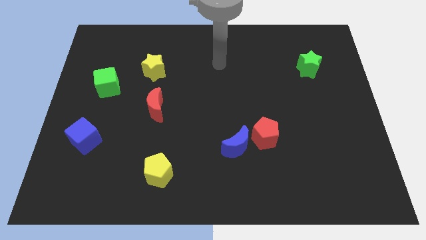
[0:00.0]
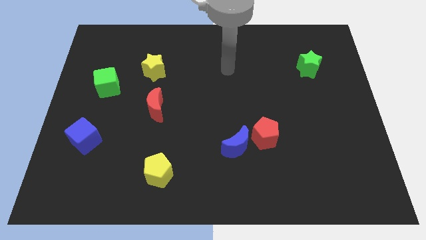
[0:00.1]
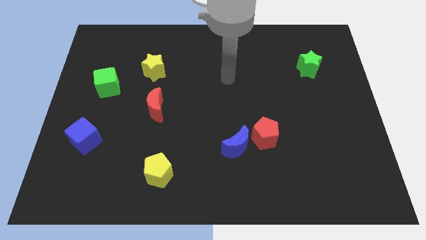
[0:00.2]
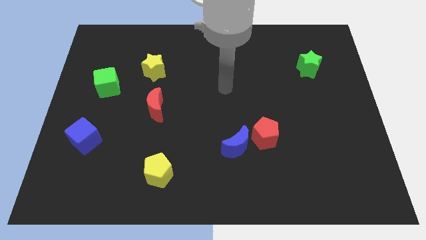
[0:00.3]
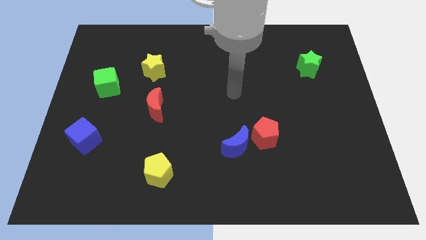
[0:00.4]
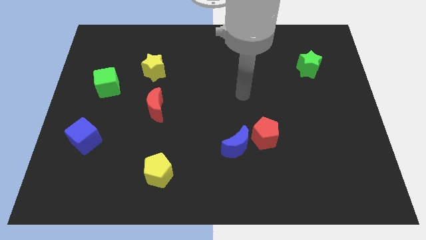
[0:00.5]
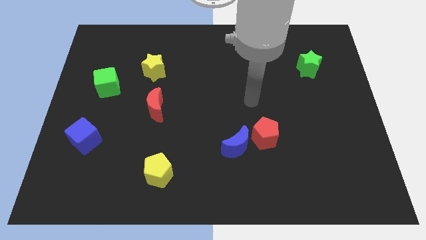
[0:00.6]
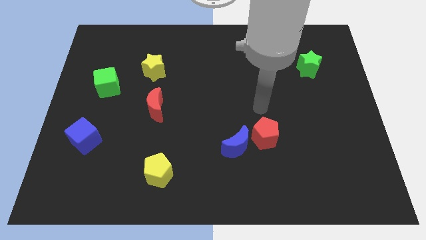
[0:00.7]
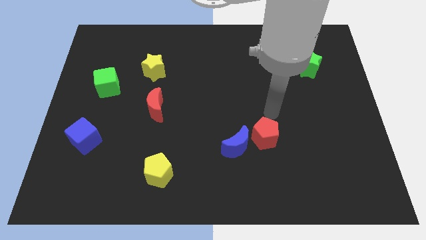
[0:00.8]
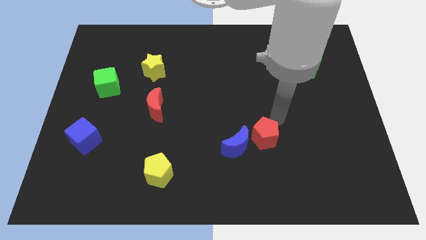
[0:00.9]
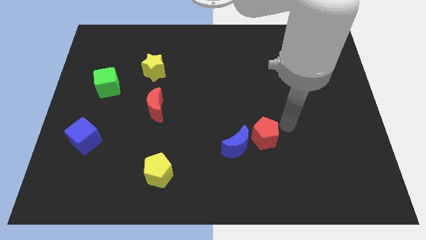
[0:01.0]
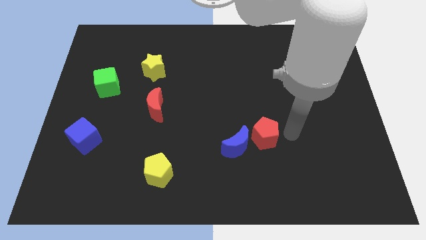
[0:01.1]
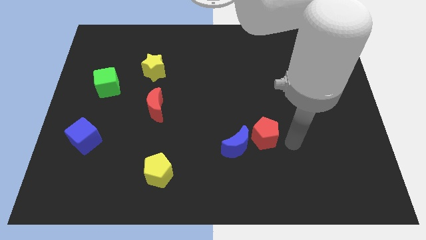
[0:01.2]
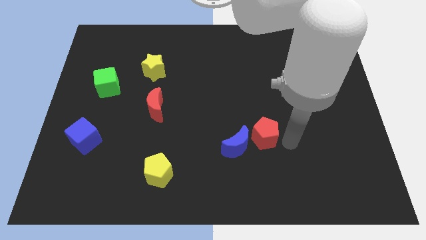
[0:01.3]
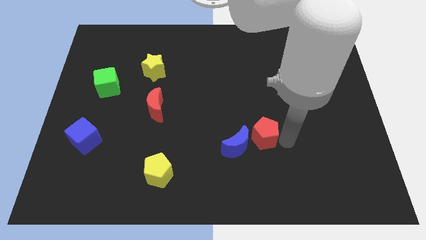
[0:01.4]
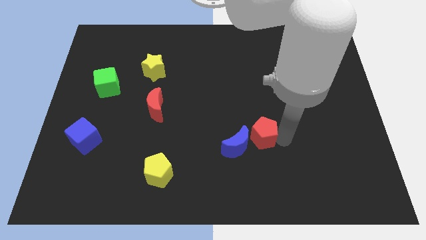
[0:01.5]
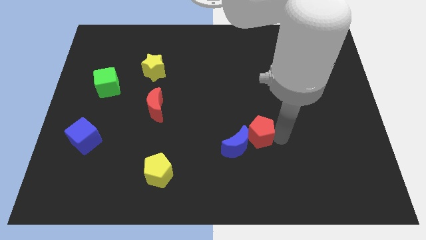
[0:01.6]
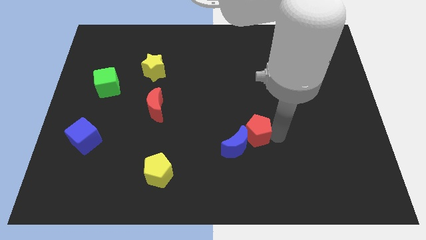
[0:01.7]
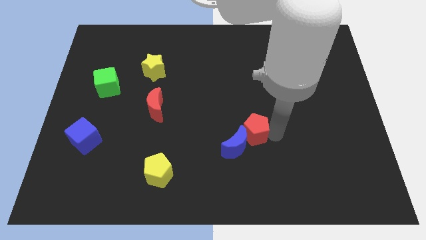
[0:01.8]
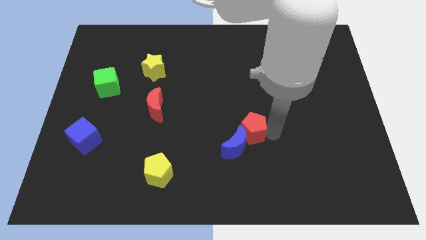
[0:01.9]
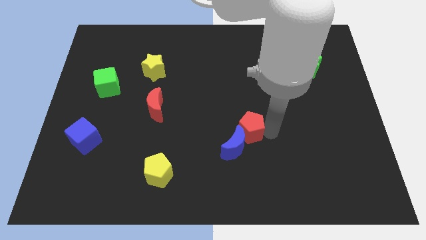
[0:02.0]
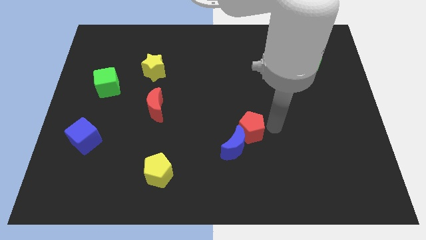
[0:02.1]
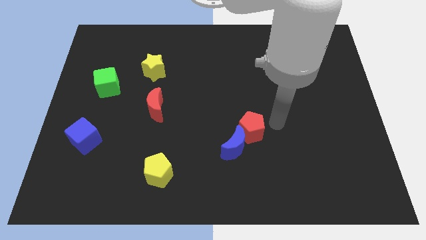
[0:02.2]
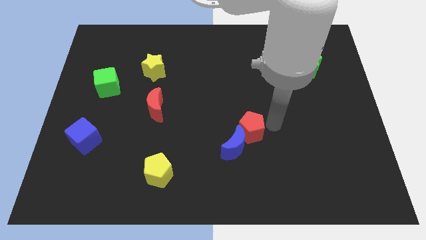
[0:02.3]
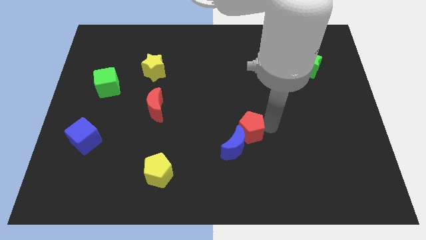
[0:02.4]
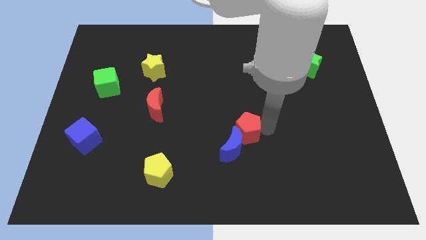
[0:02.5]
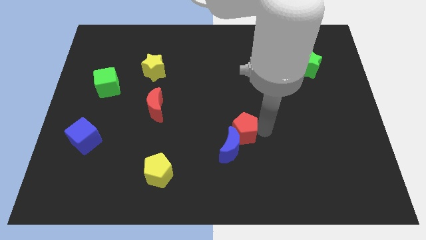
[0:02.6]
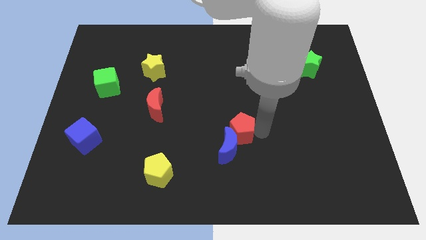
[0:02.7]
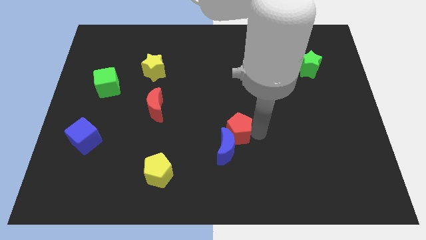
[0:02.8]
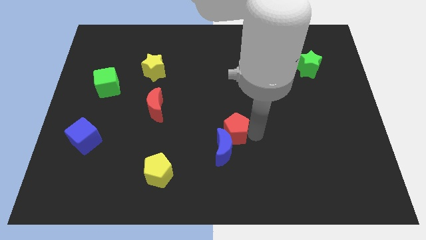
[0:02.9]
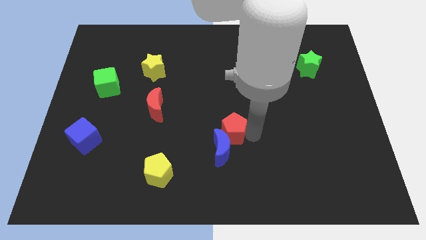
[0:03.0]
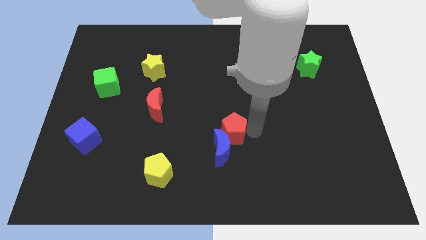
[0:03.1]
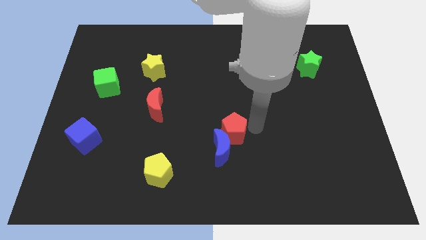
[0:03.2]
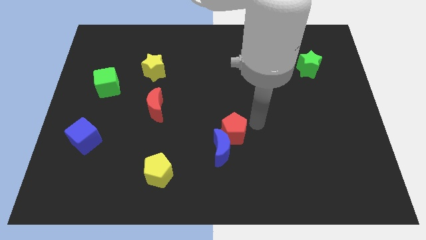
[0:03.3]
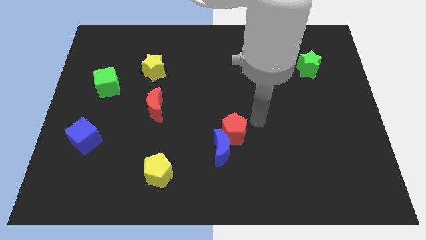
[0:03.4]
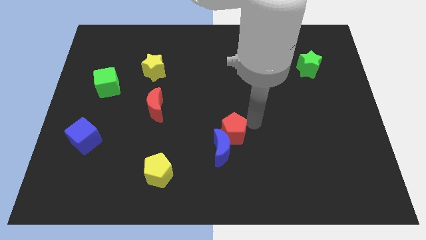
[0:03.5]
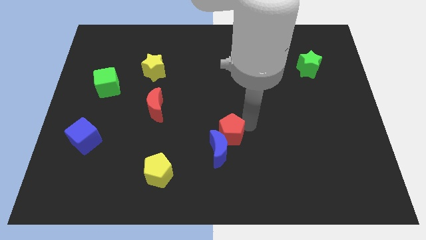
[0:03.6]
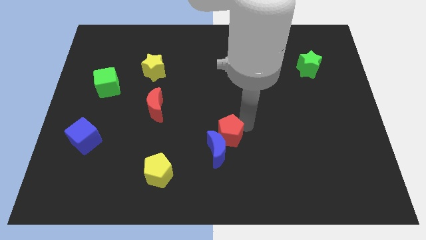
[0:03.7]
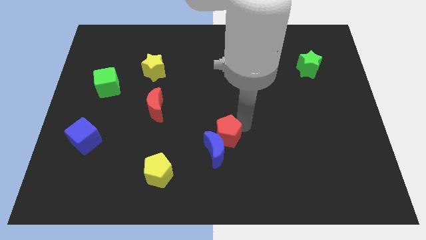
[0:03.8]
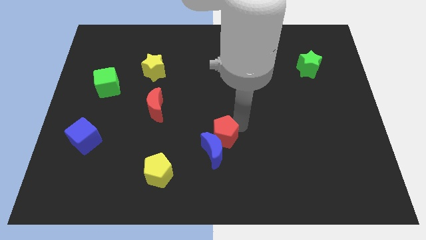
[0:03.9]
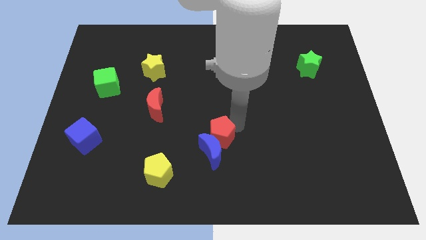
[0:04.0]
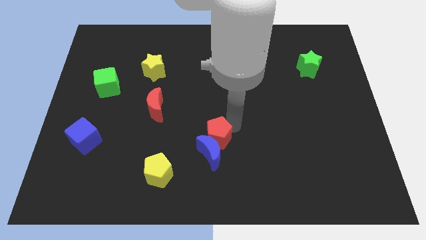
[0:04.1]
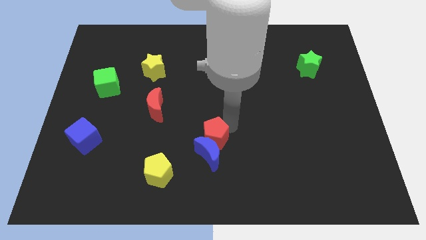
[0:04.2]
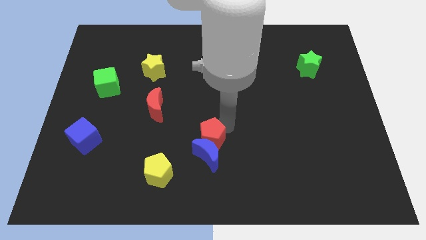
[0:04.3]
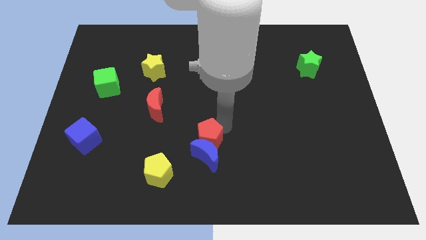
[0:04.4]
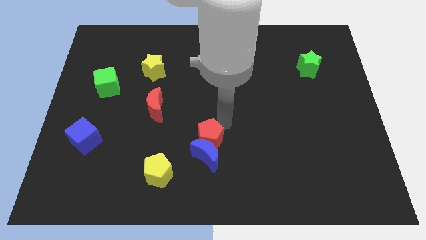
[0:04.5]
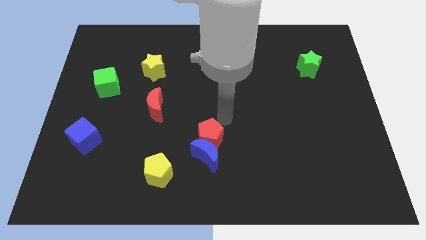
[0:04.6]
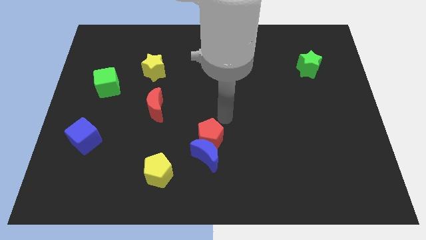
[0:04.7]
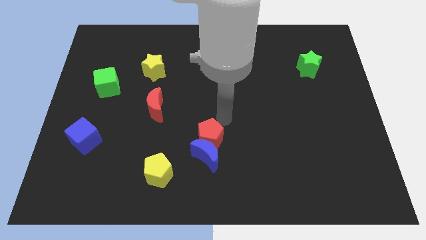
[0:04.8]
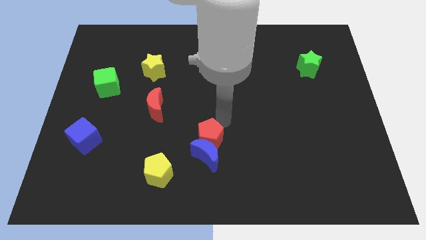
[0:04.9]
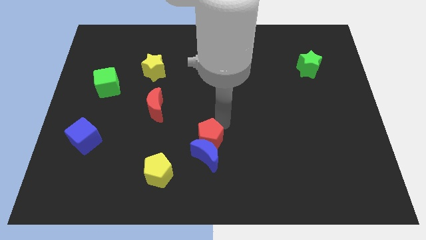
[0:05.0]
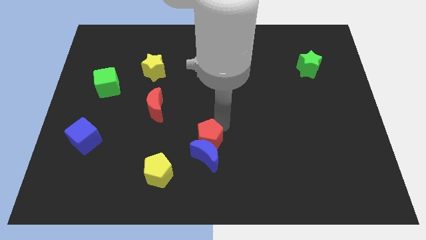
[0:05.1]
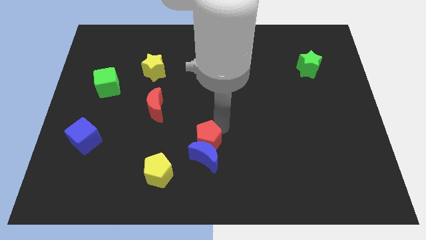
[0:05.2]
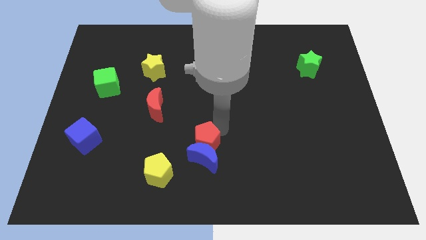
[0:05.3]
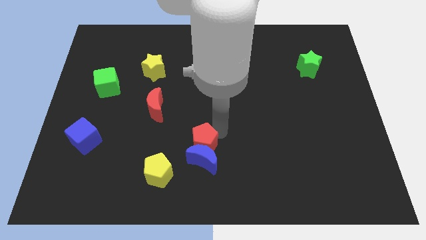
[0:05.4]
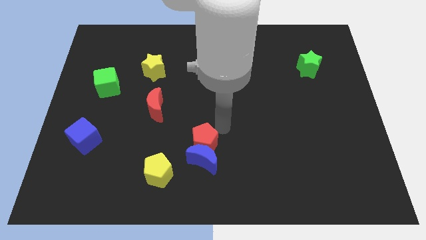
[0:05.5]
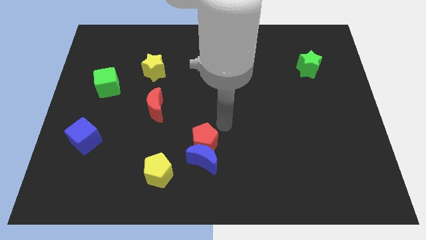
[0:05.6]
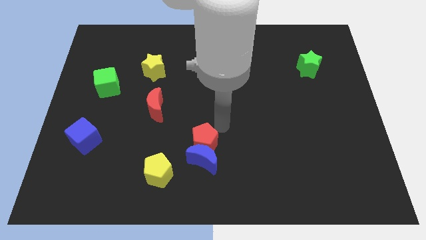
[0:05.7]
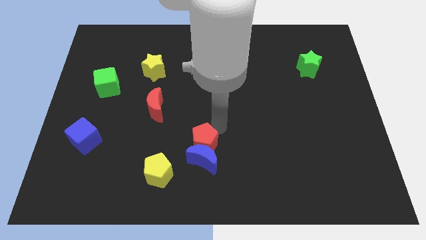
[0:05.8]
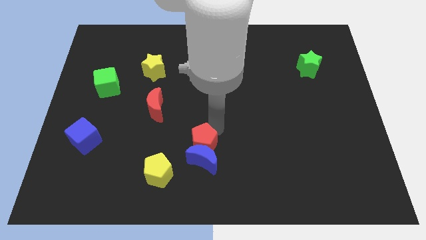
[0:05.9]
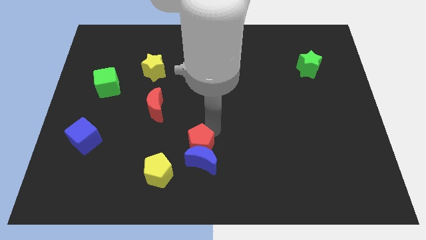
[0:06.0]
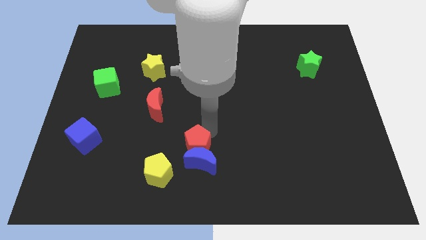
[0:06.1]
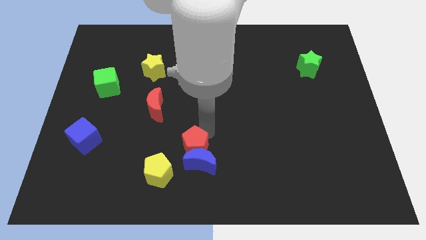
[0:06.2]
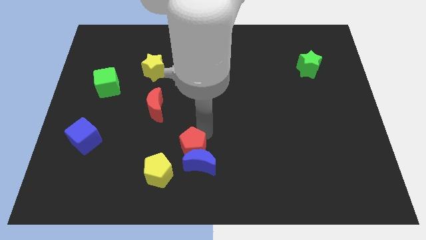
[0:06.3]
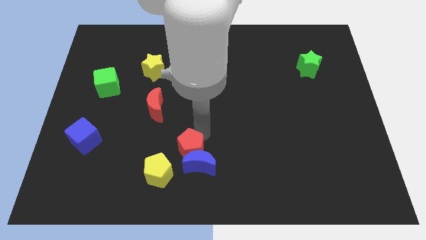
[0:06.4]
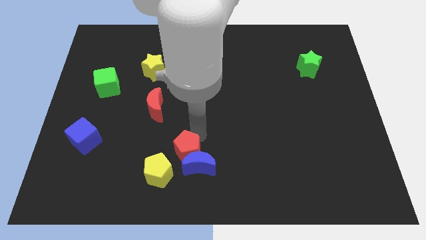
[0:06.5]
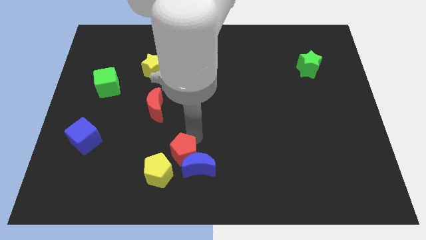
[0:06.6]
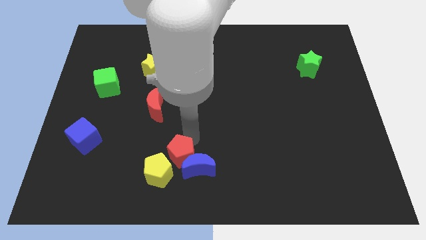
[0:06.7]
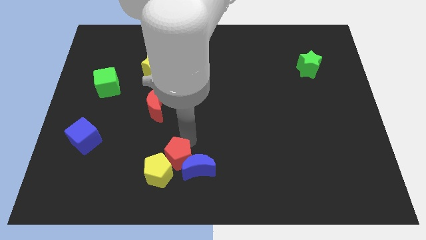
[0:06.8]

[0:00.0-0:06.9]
move the red pentagon close to the yellow pentagon

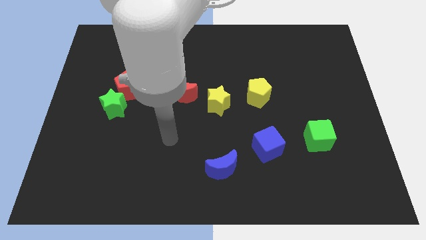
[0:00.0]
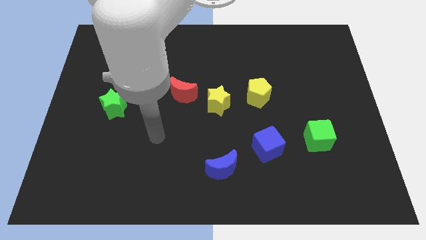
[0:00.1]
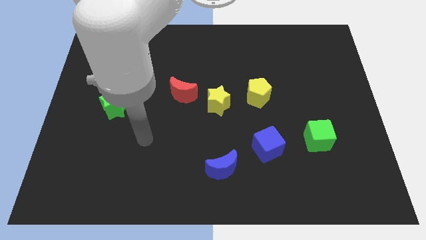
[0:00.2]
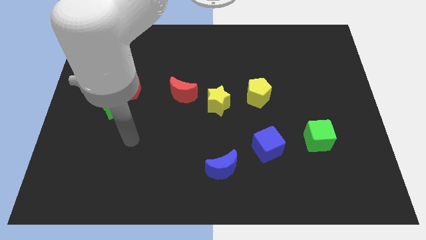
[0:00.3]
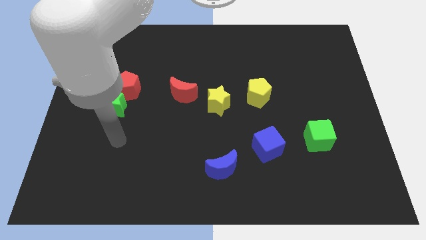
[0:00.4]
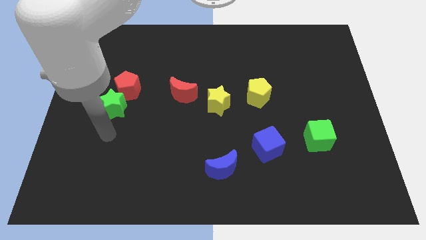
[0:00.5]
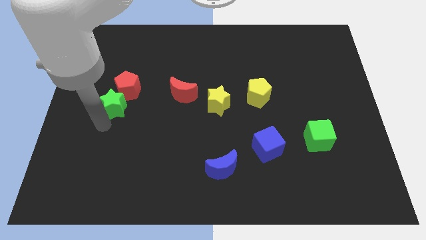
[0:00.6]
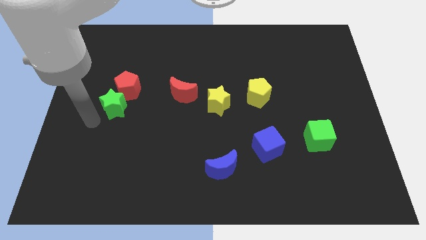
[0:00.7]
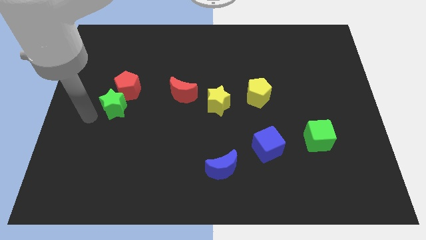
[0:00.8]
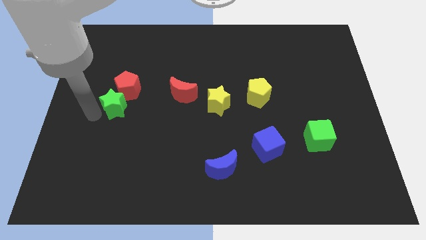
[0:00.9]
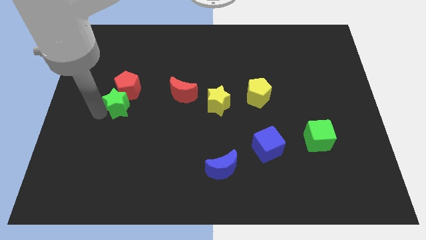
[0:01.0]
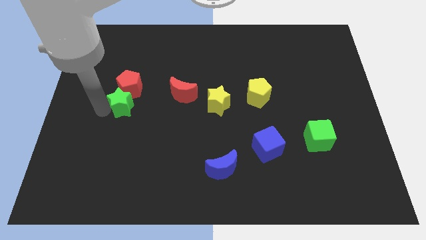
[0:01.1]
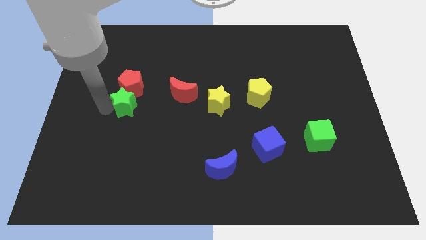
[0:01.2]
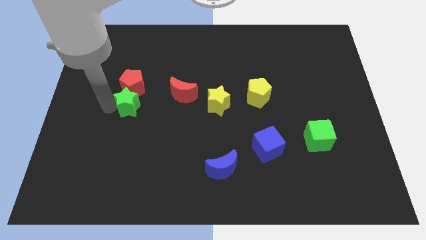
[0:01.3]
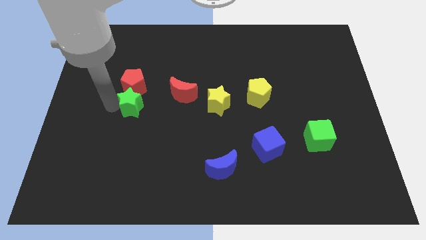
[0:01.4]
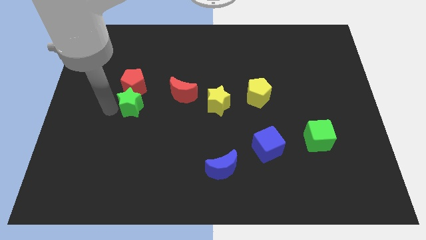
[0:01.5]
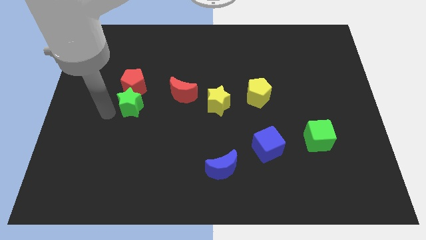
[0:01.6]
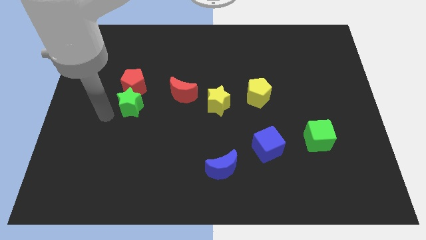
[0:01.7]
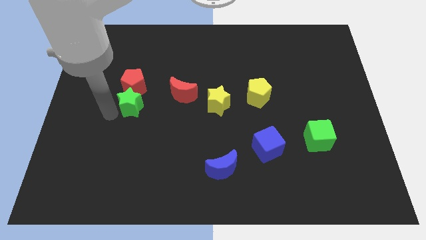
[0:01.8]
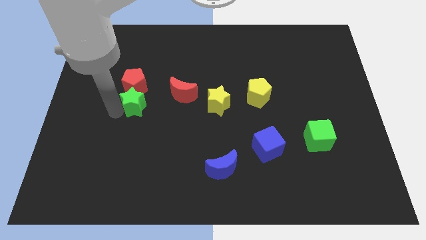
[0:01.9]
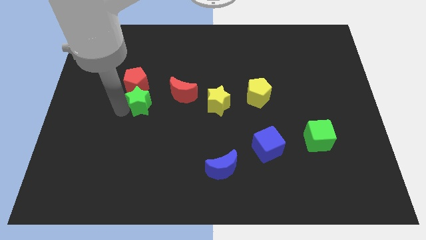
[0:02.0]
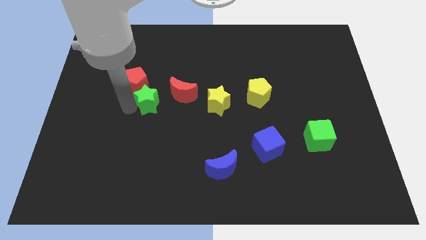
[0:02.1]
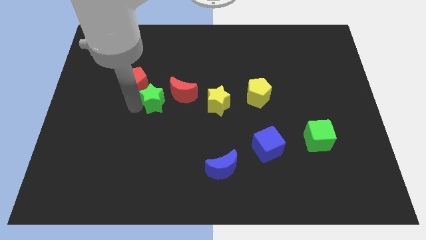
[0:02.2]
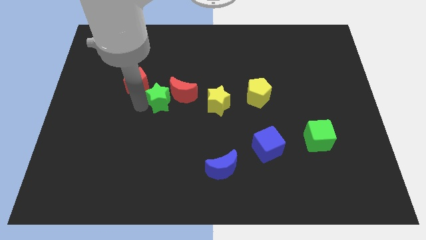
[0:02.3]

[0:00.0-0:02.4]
push the green star close to the red moon
